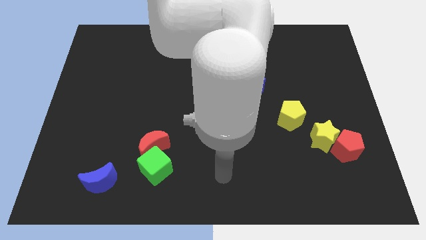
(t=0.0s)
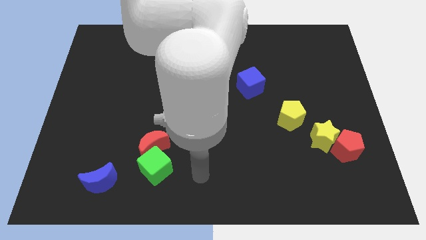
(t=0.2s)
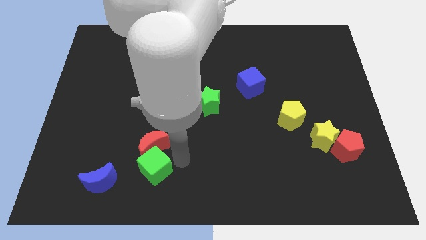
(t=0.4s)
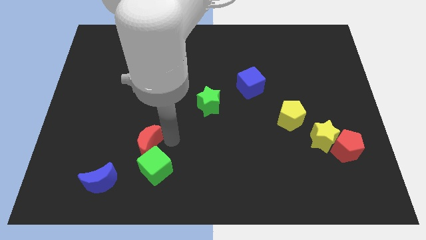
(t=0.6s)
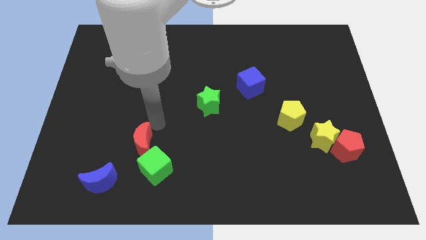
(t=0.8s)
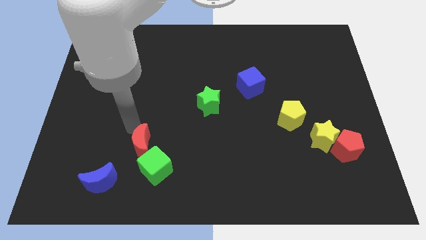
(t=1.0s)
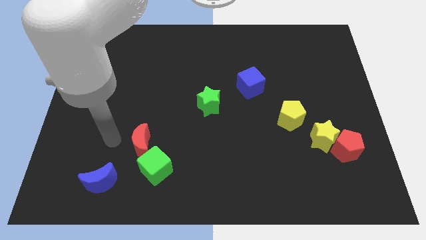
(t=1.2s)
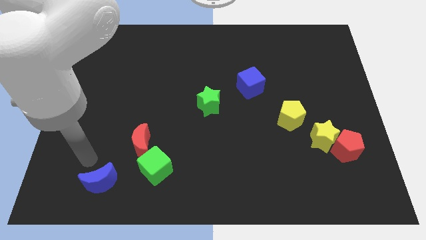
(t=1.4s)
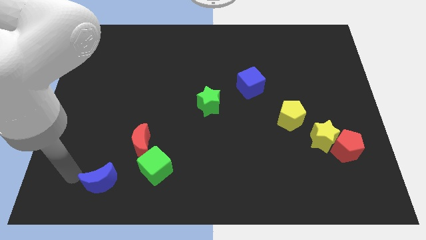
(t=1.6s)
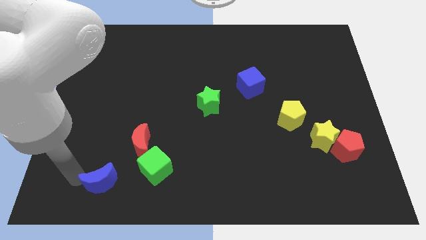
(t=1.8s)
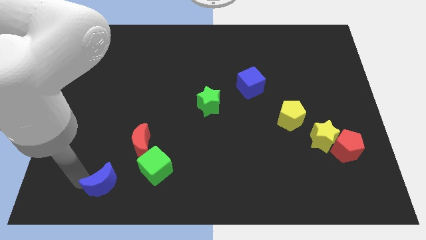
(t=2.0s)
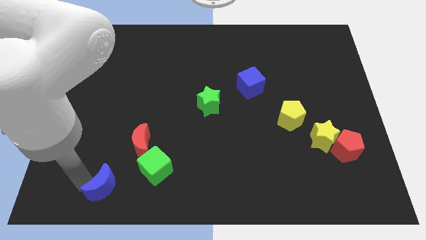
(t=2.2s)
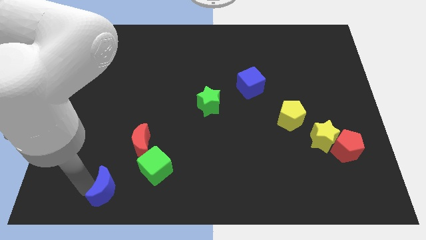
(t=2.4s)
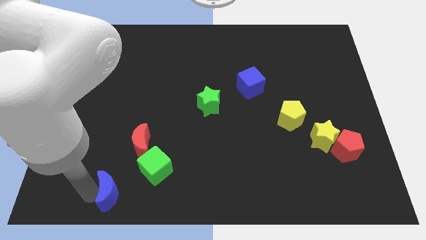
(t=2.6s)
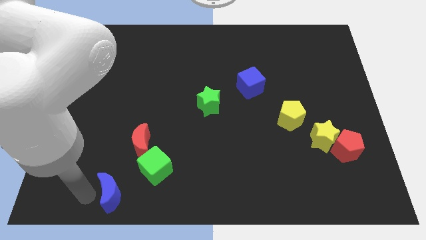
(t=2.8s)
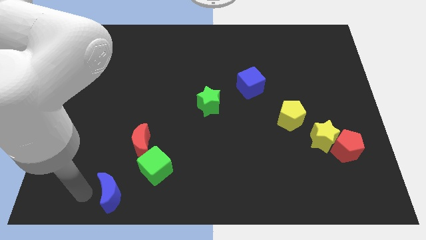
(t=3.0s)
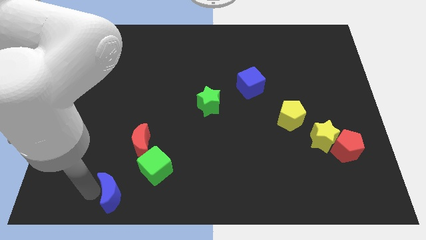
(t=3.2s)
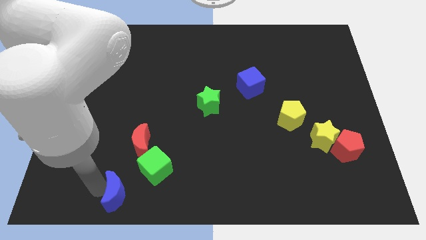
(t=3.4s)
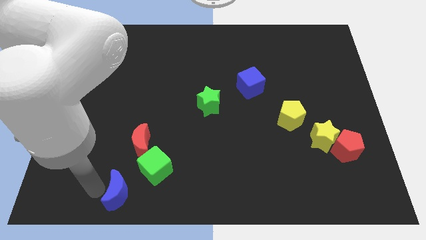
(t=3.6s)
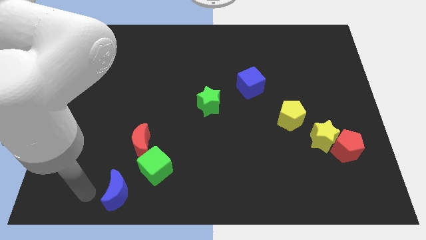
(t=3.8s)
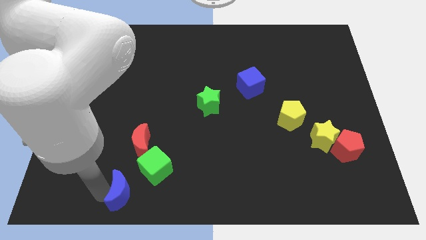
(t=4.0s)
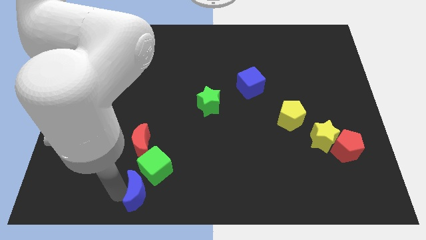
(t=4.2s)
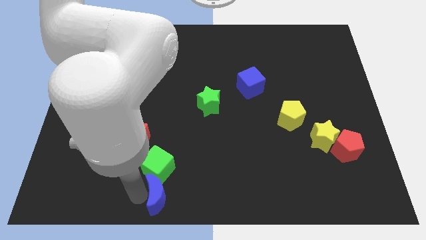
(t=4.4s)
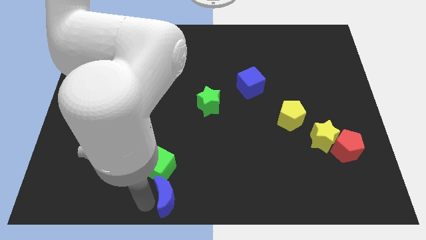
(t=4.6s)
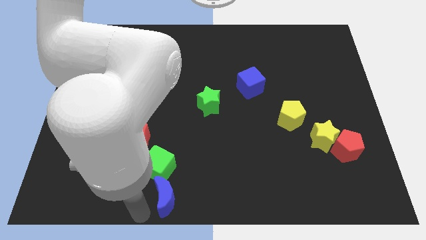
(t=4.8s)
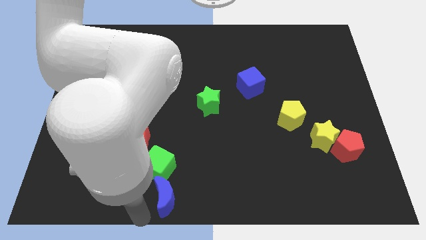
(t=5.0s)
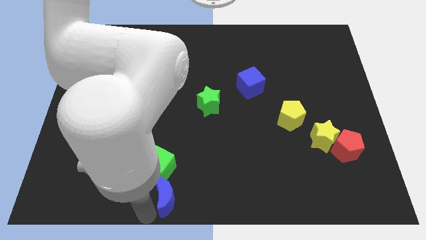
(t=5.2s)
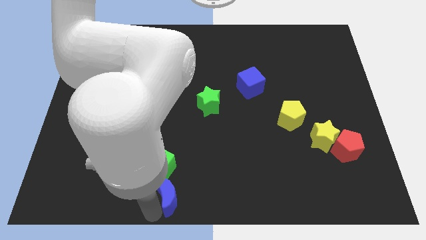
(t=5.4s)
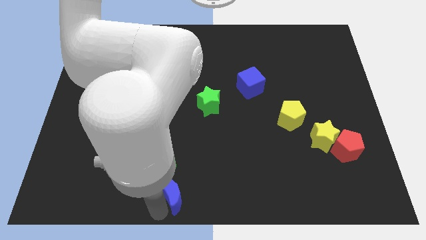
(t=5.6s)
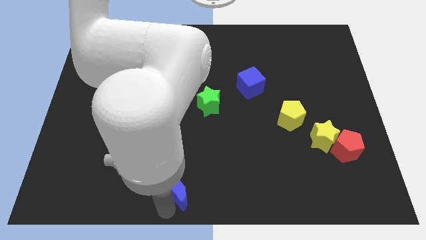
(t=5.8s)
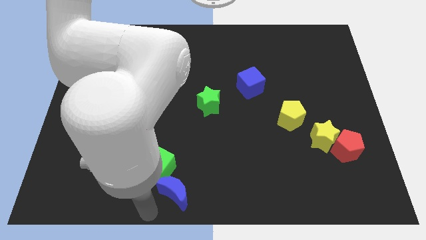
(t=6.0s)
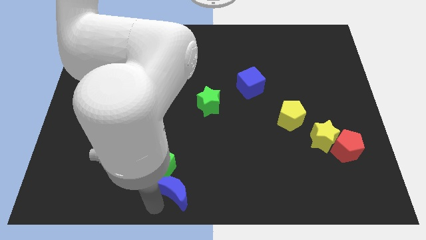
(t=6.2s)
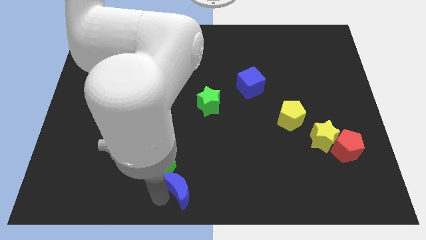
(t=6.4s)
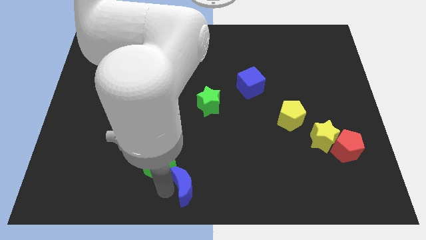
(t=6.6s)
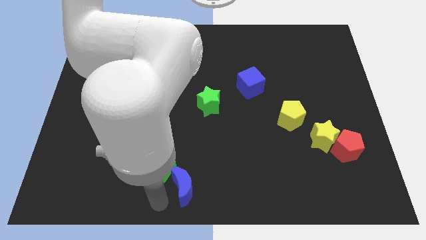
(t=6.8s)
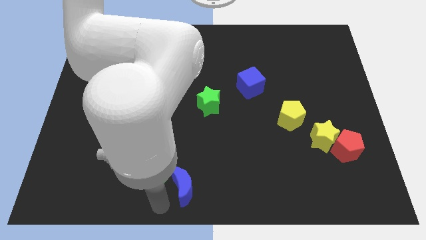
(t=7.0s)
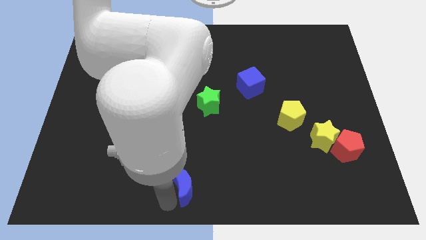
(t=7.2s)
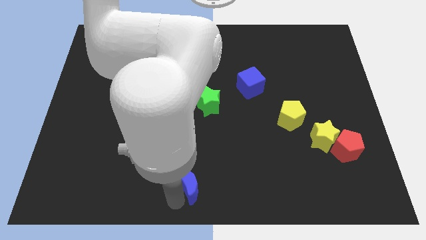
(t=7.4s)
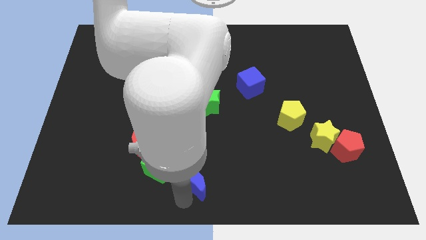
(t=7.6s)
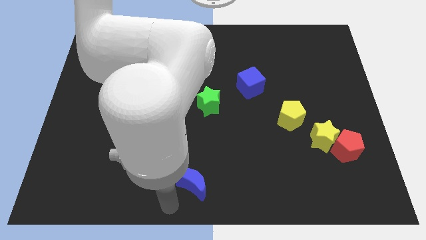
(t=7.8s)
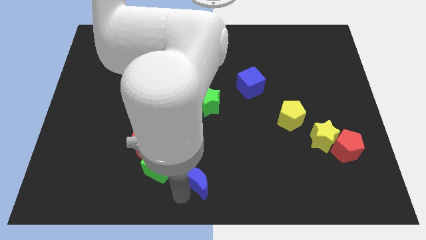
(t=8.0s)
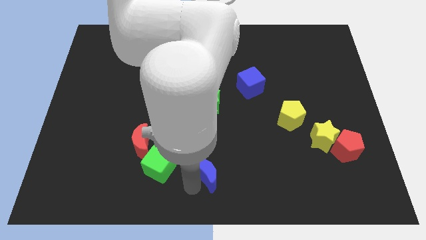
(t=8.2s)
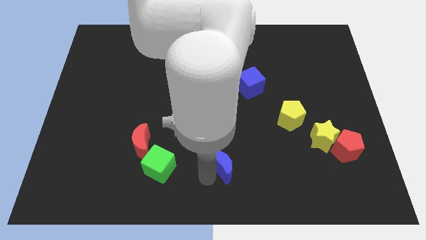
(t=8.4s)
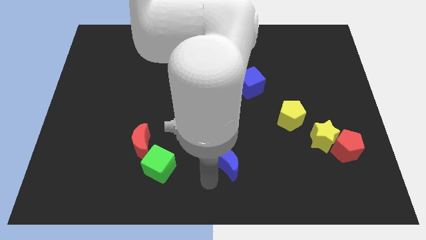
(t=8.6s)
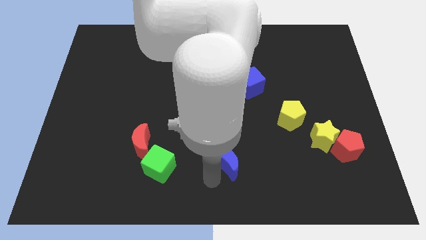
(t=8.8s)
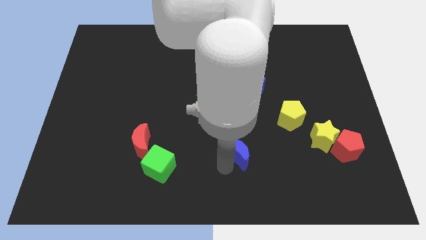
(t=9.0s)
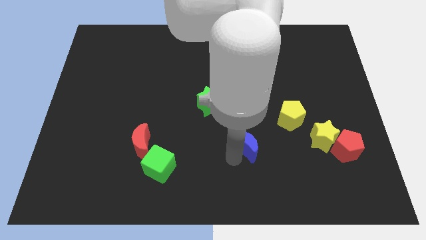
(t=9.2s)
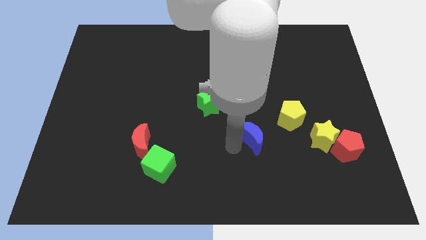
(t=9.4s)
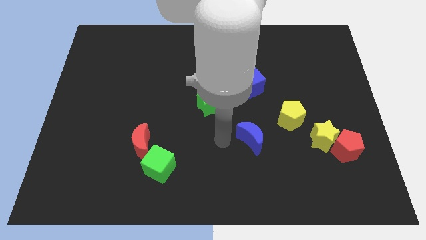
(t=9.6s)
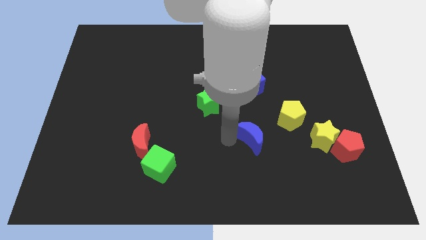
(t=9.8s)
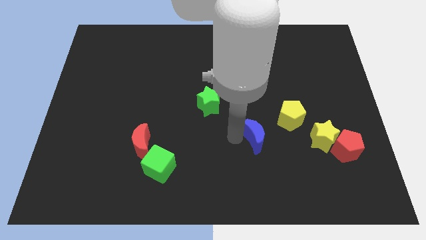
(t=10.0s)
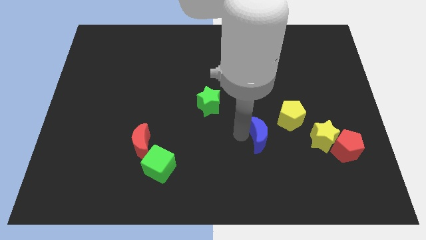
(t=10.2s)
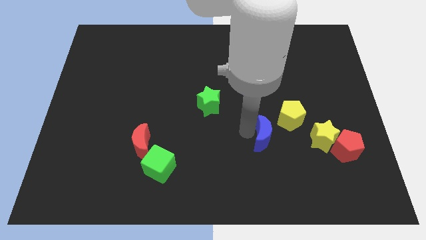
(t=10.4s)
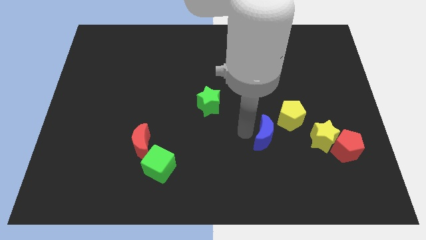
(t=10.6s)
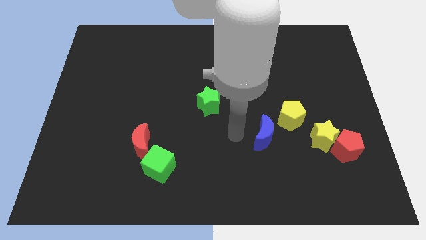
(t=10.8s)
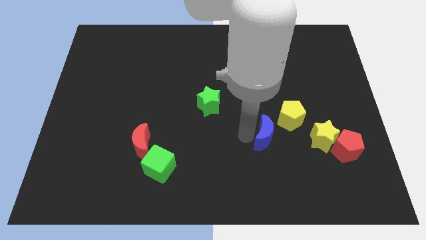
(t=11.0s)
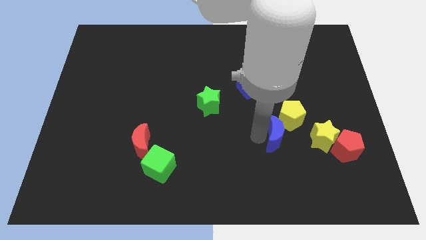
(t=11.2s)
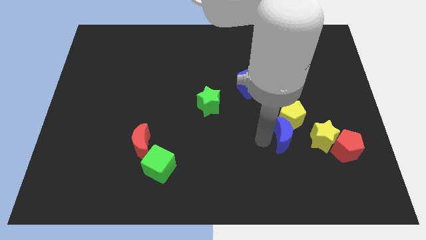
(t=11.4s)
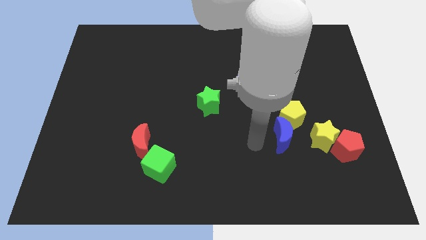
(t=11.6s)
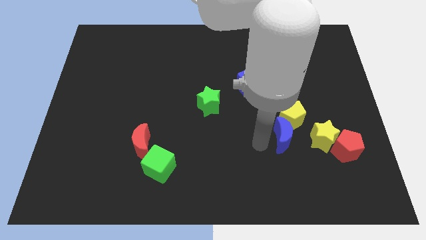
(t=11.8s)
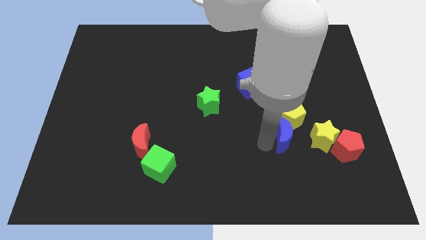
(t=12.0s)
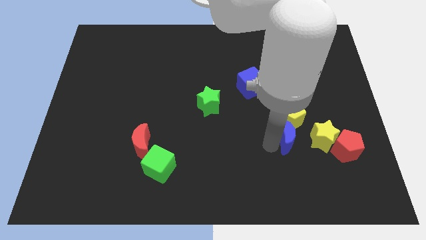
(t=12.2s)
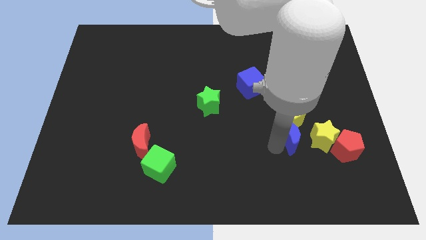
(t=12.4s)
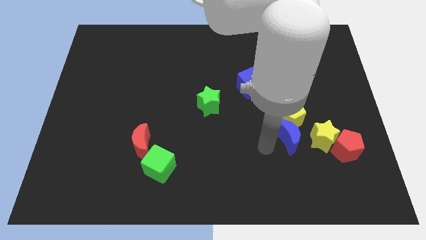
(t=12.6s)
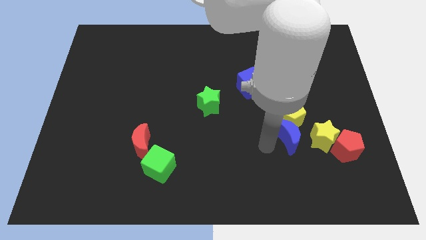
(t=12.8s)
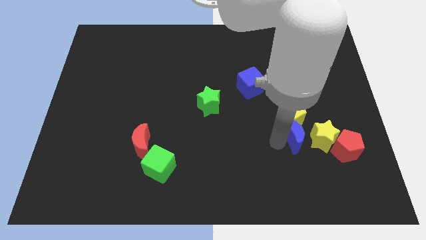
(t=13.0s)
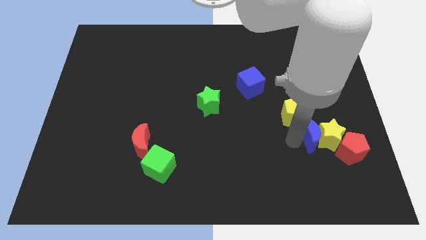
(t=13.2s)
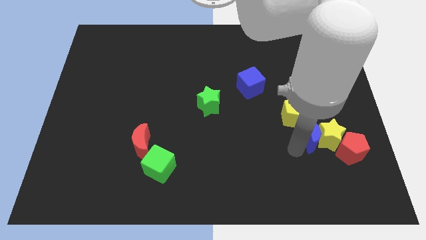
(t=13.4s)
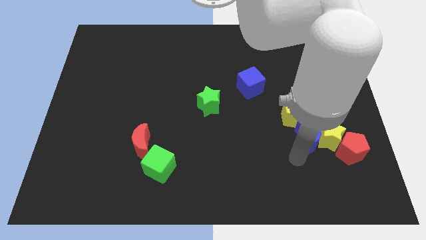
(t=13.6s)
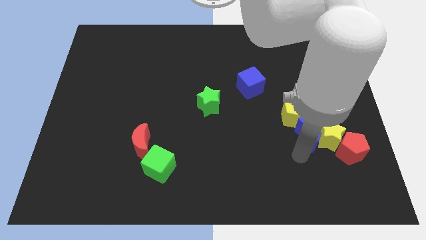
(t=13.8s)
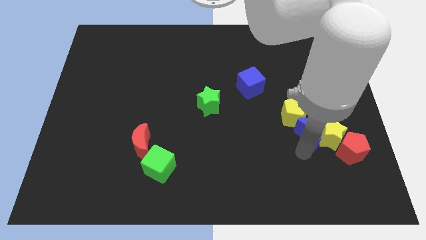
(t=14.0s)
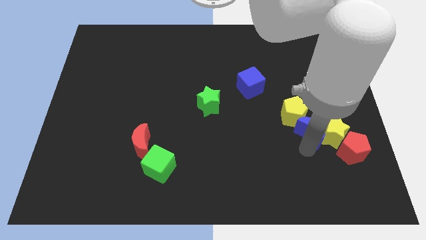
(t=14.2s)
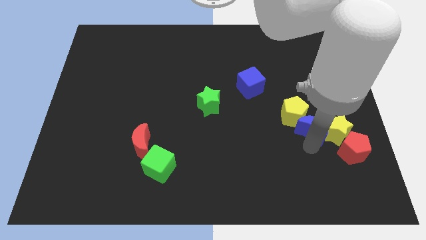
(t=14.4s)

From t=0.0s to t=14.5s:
move the blue moon right of the yellow pentagon
